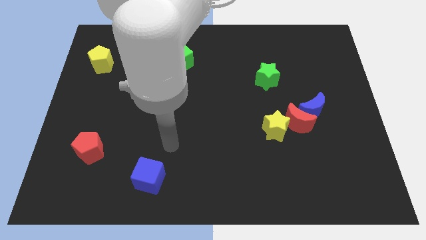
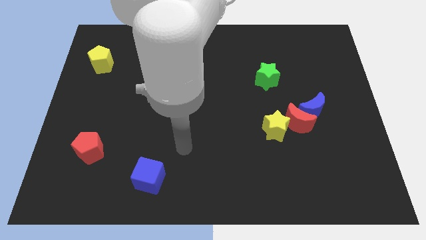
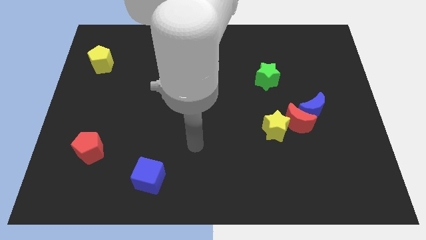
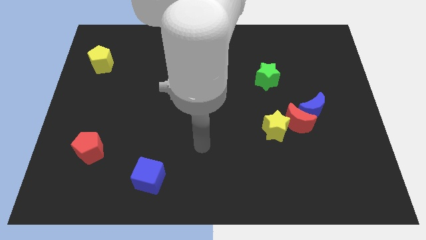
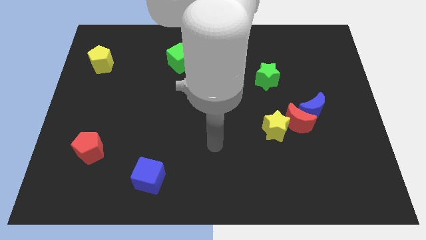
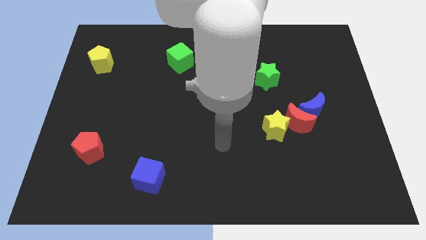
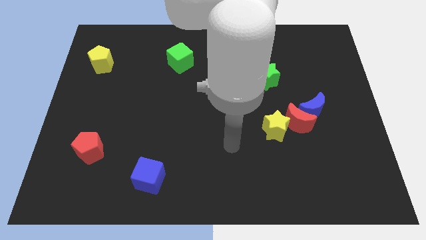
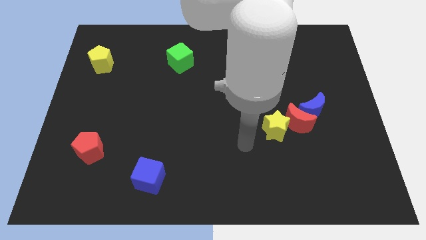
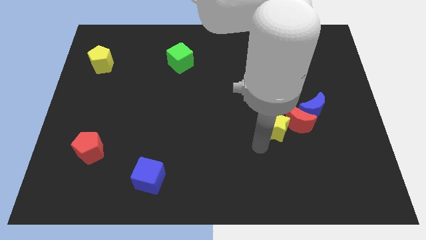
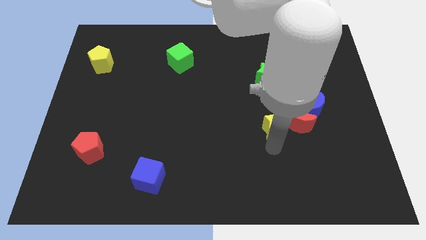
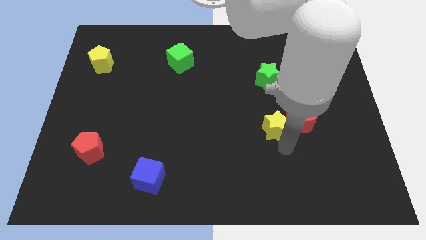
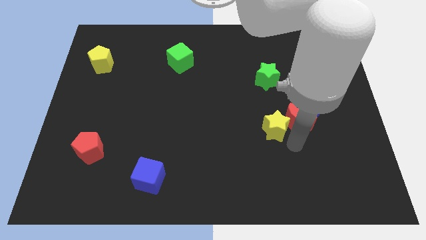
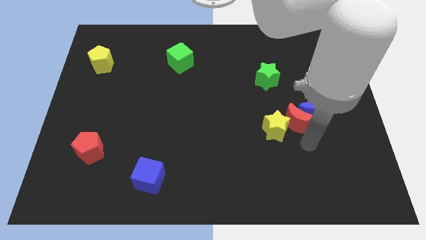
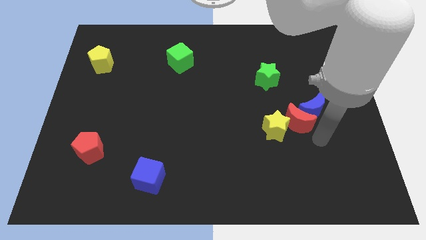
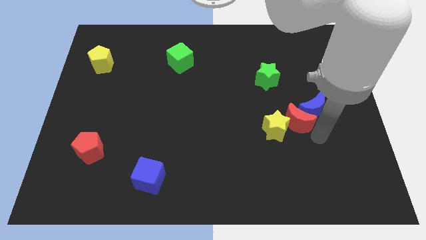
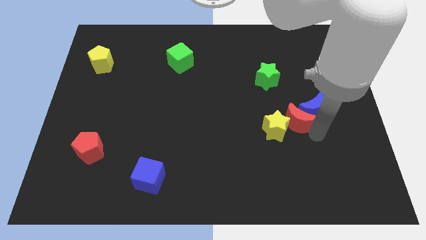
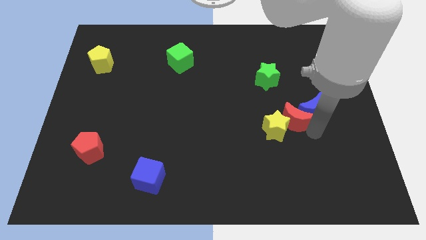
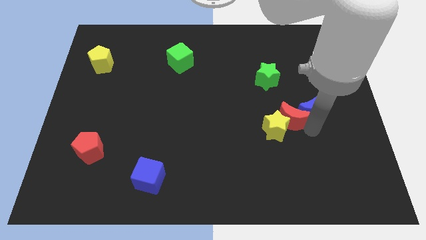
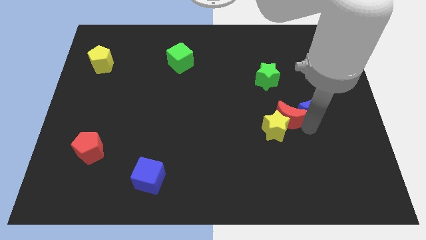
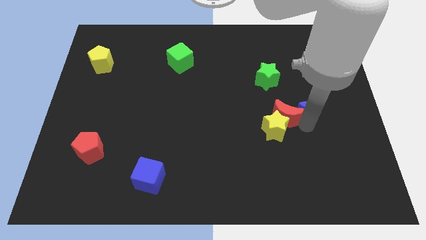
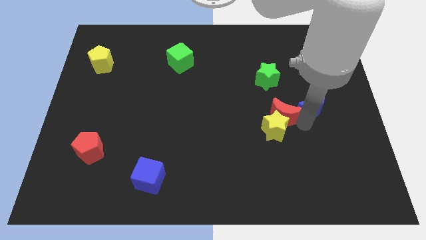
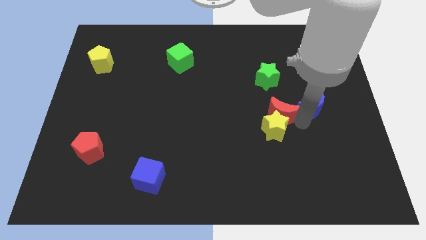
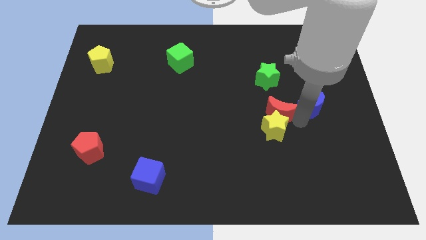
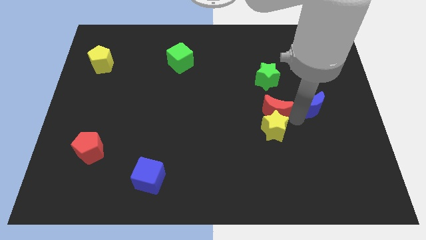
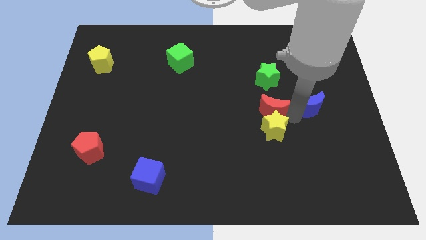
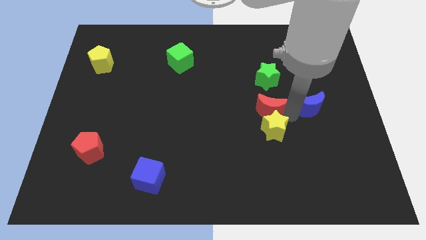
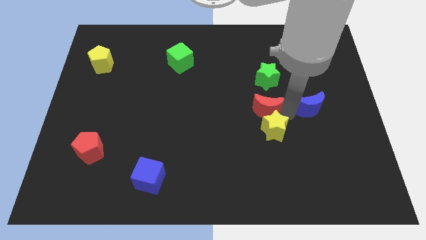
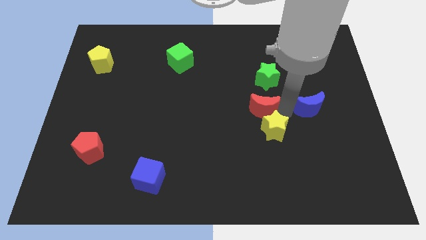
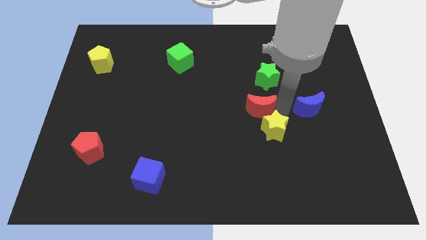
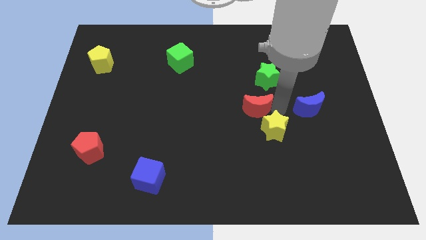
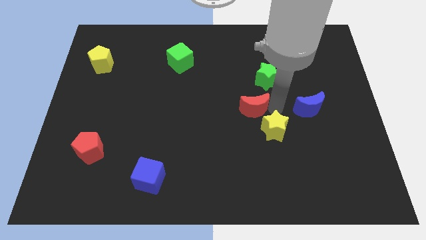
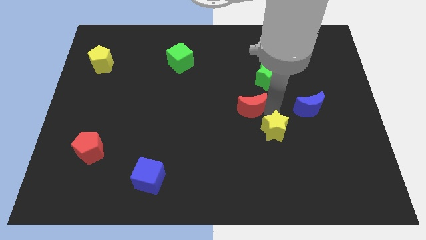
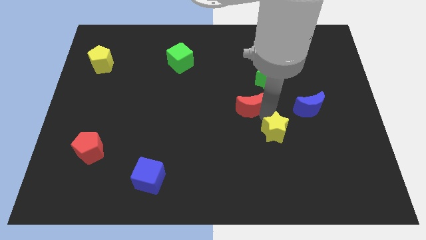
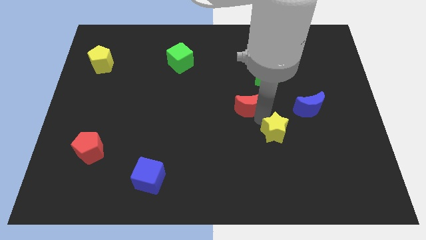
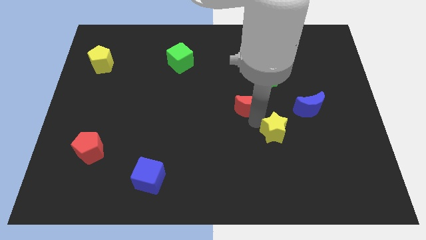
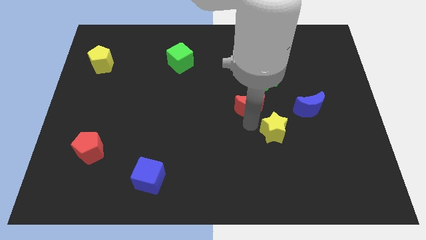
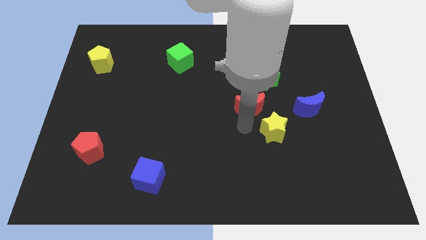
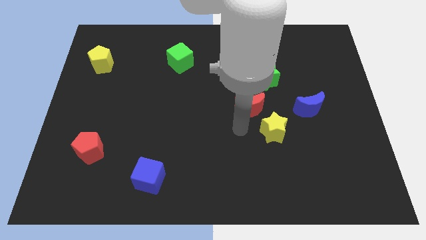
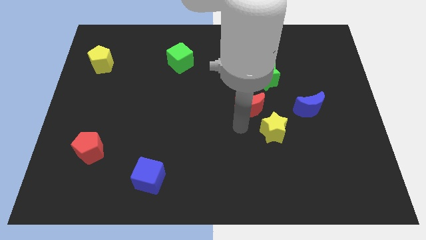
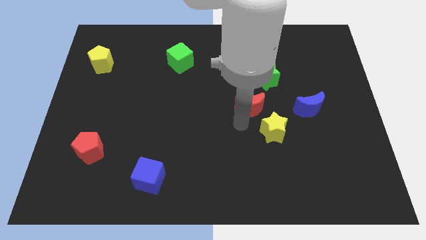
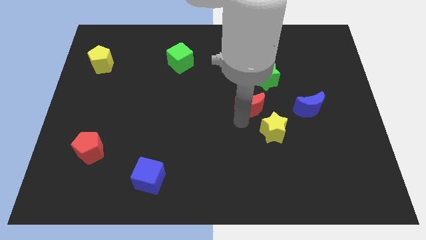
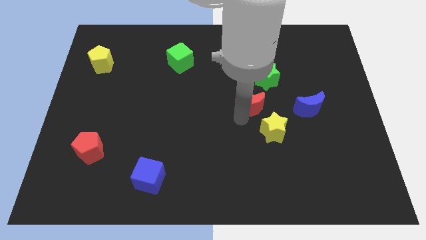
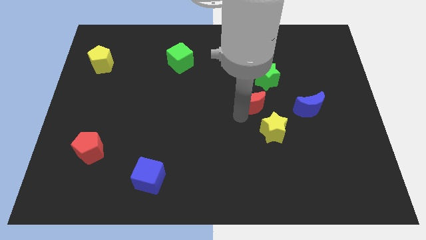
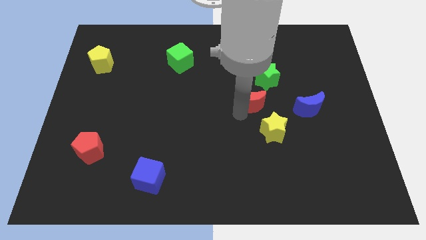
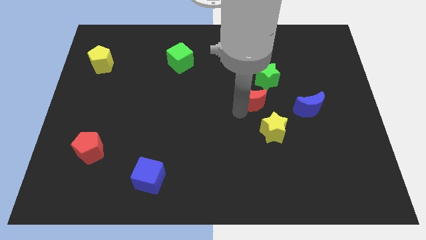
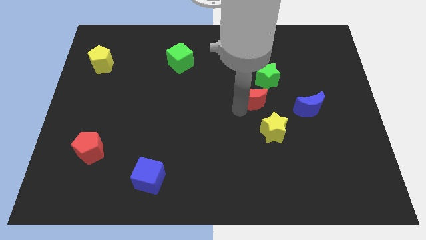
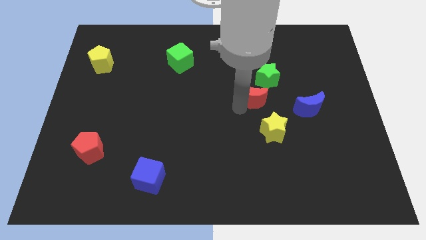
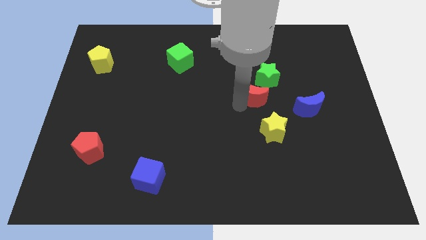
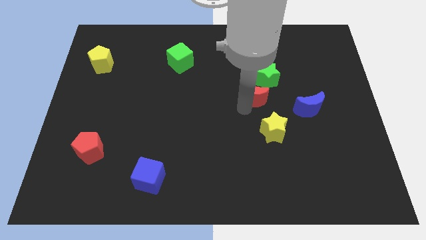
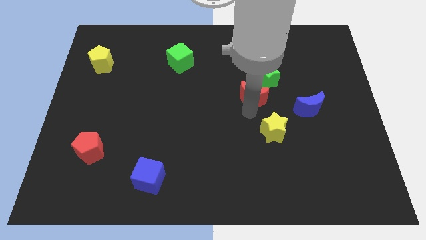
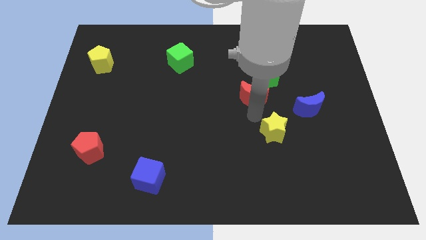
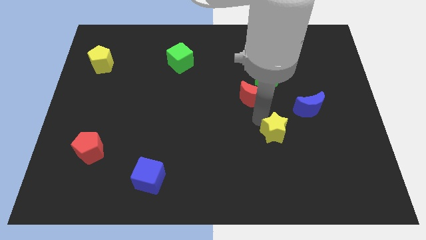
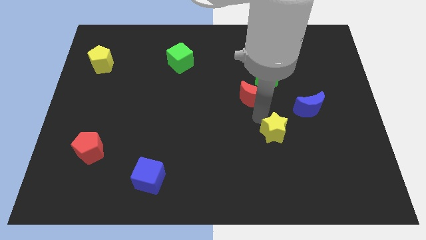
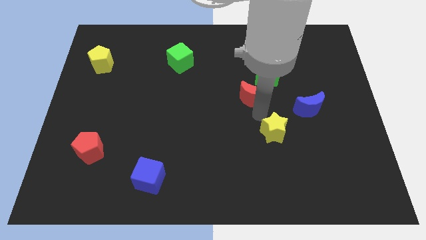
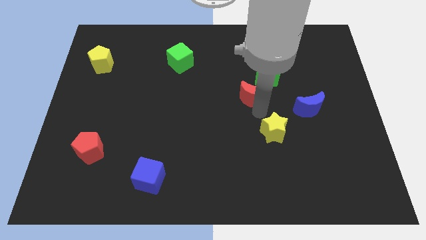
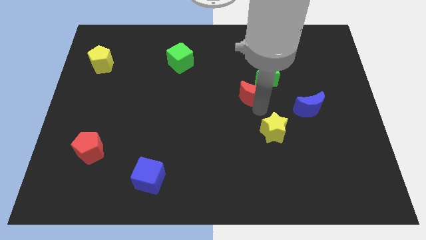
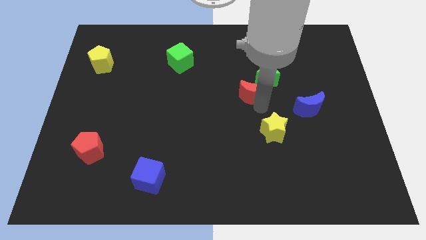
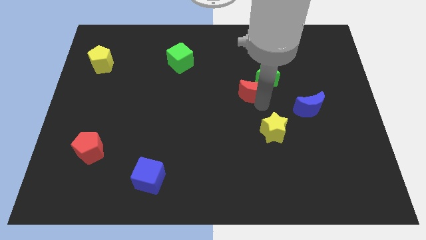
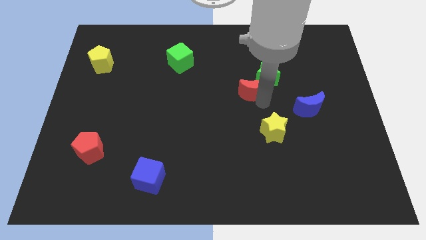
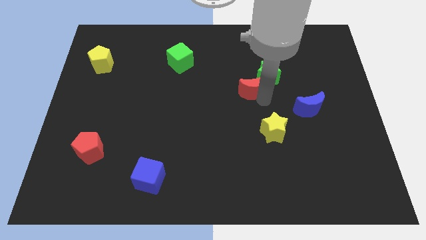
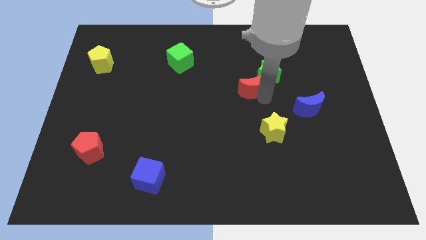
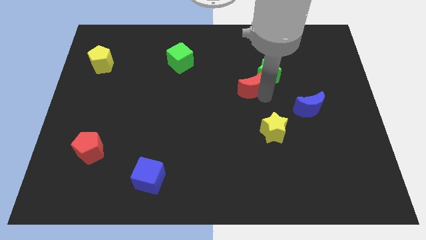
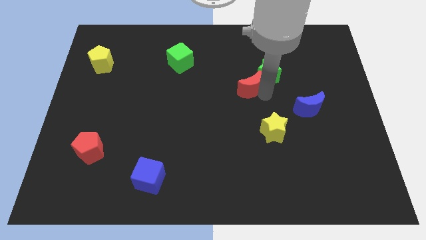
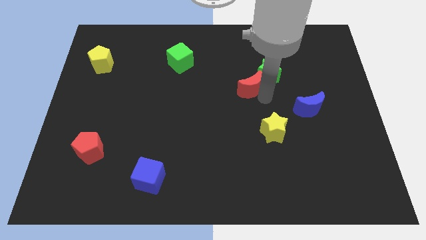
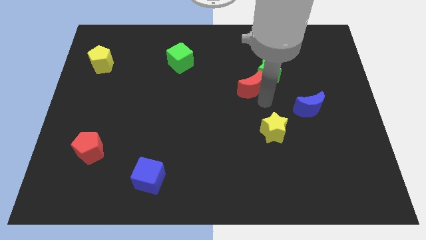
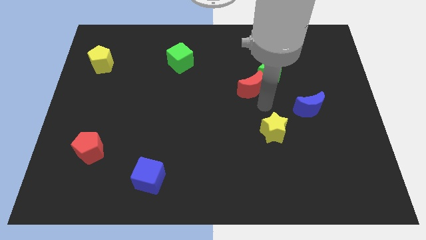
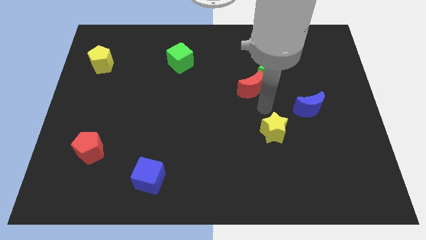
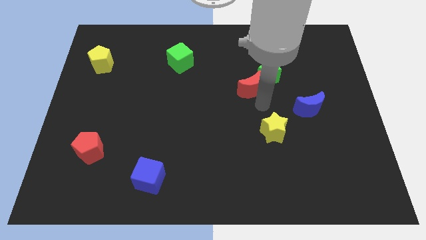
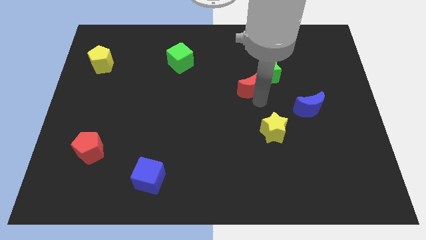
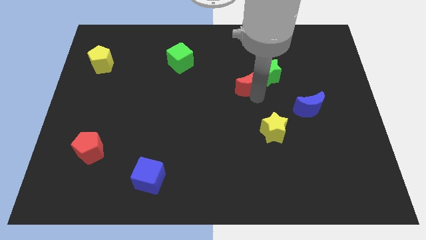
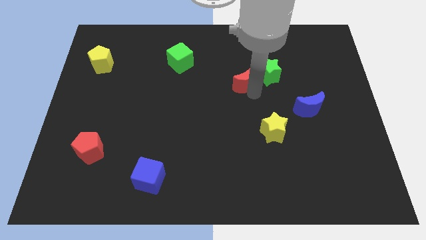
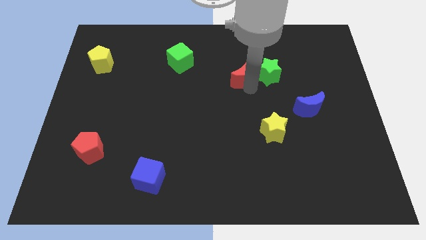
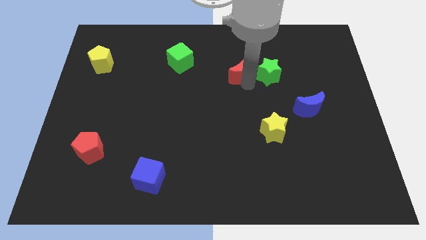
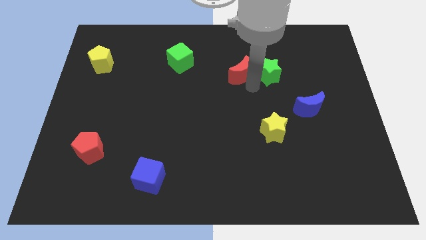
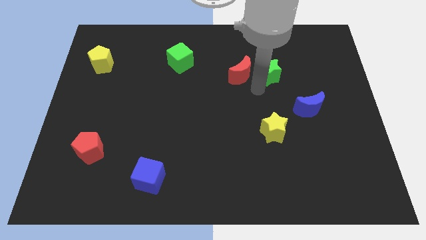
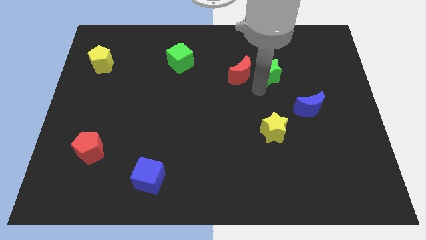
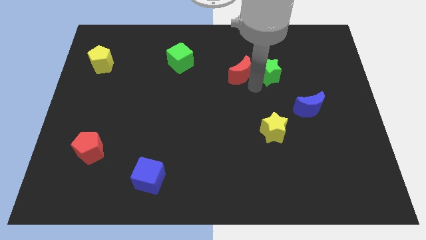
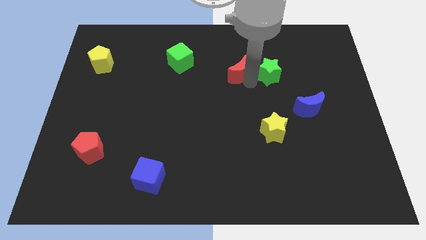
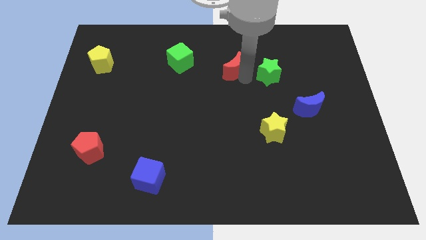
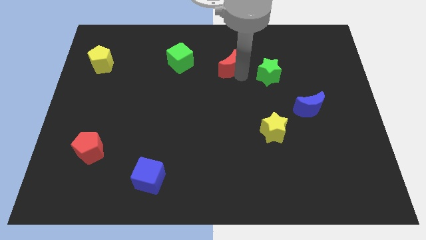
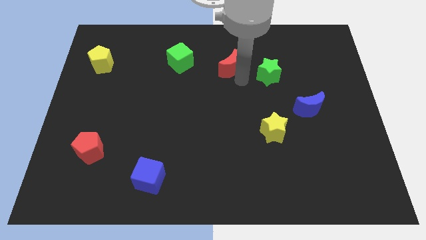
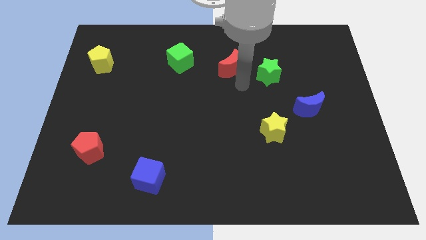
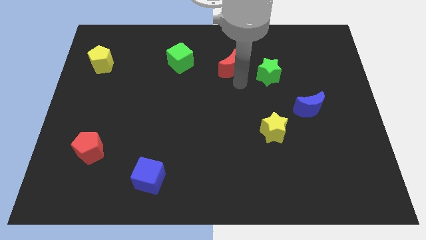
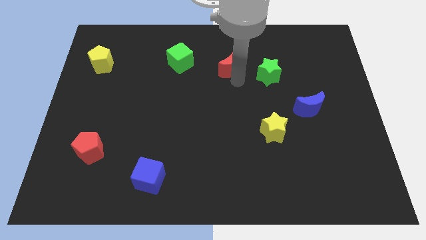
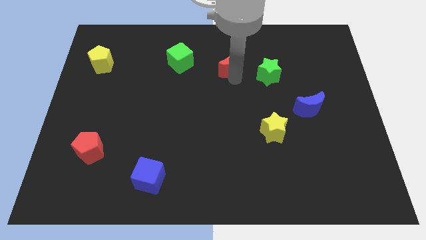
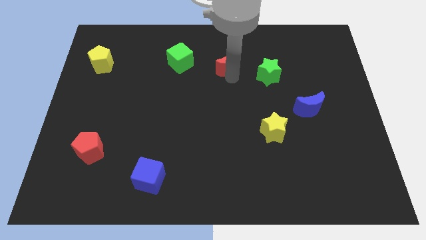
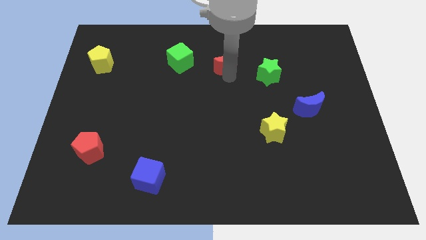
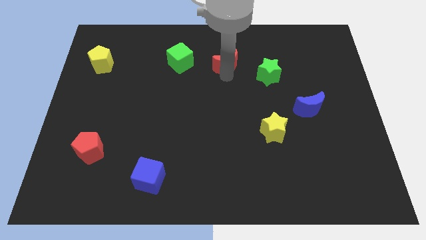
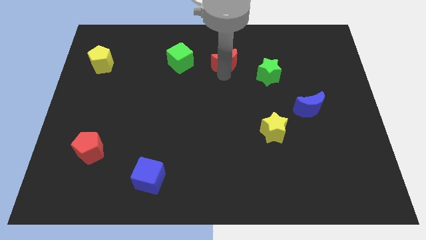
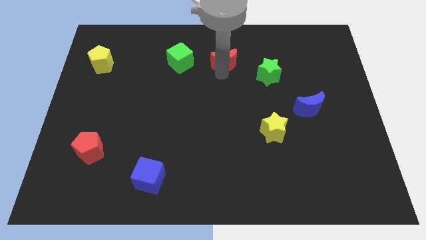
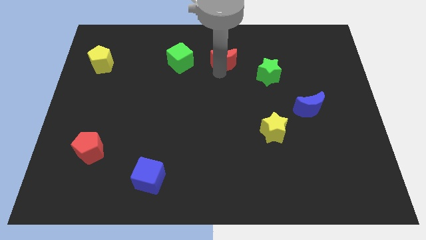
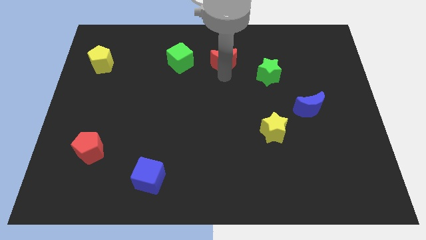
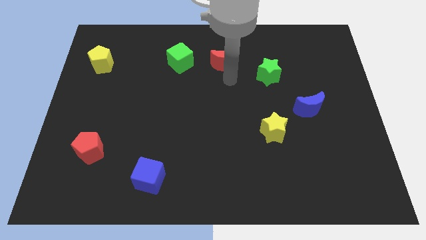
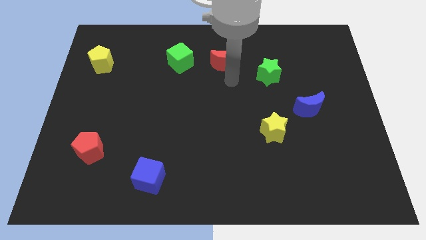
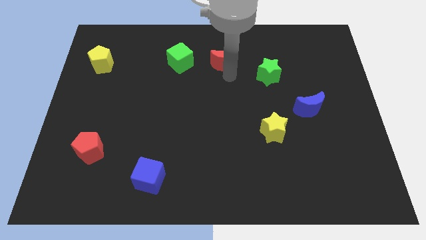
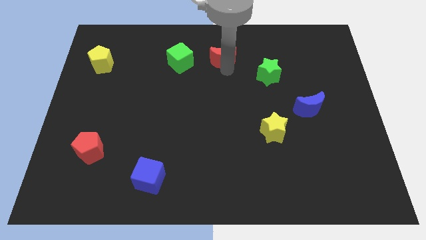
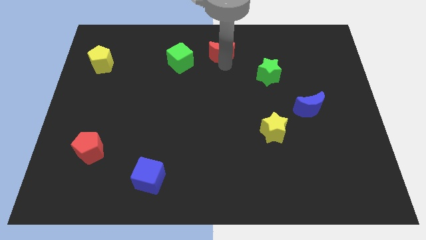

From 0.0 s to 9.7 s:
slide the red moon to the top
